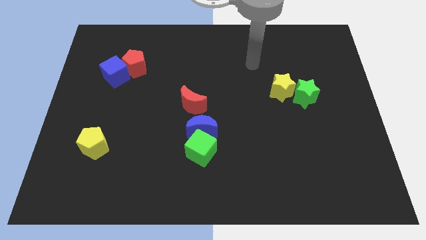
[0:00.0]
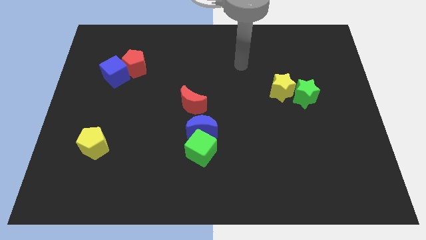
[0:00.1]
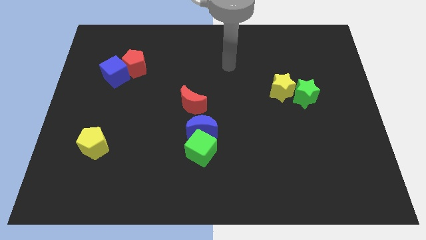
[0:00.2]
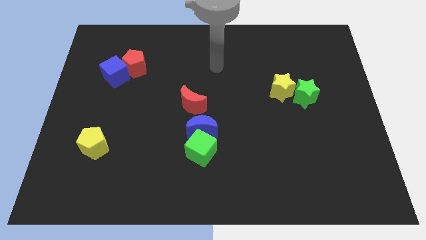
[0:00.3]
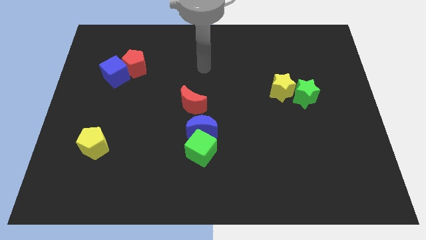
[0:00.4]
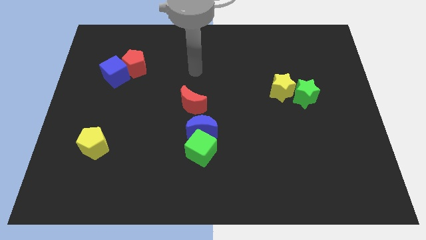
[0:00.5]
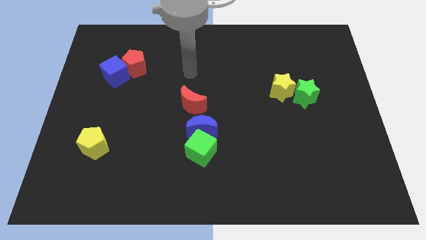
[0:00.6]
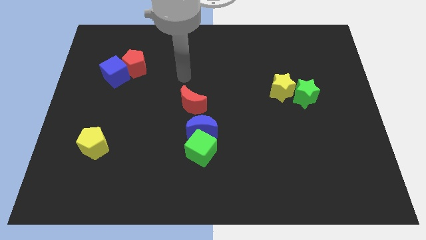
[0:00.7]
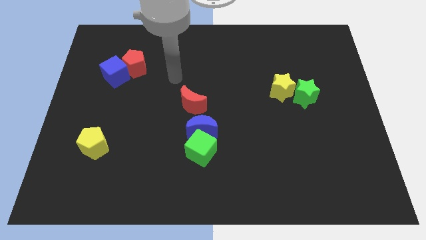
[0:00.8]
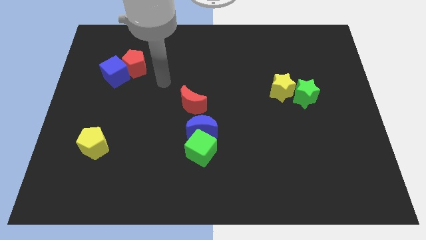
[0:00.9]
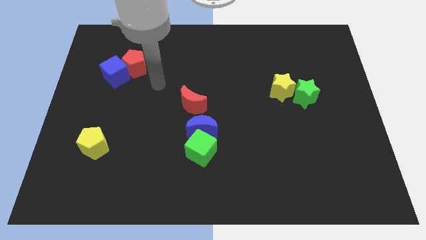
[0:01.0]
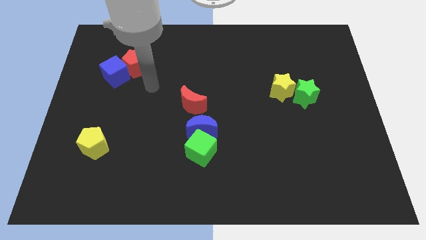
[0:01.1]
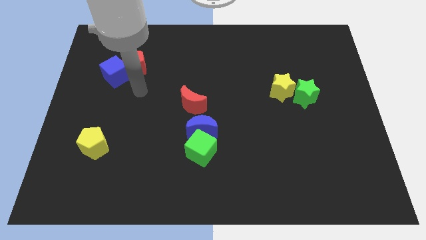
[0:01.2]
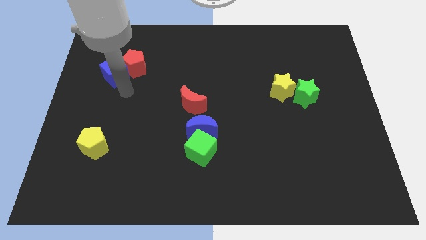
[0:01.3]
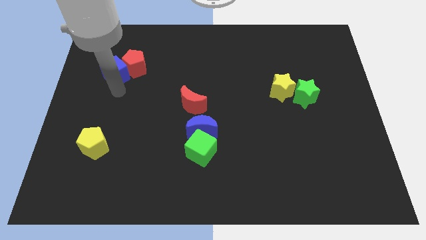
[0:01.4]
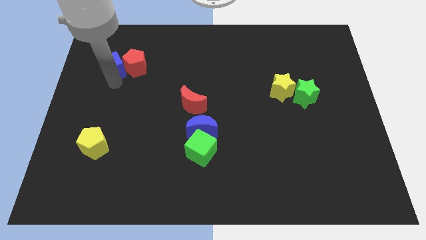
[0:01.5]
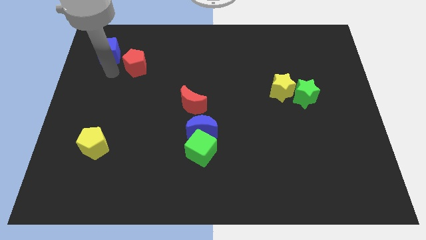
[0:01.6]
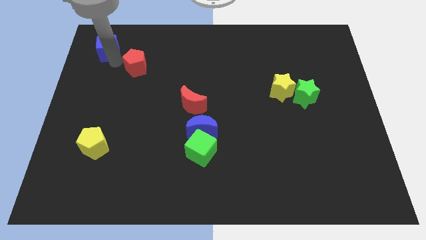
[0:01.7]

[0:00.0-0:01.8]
pull the red pentagon apart from the blue cube

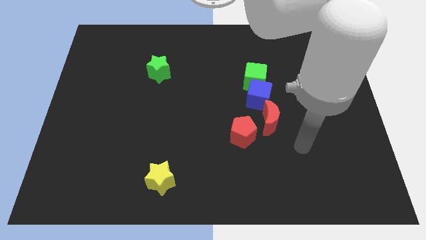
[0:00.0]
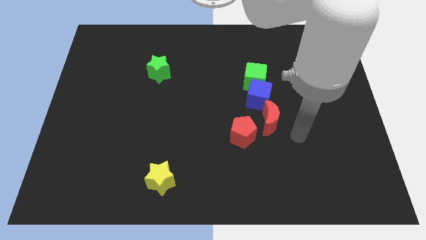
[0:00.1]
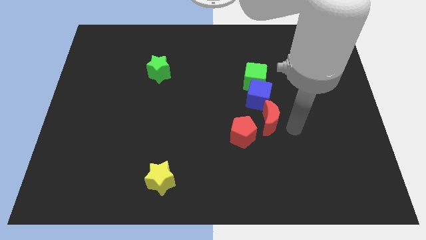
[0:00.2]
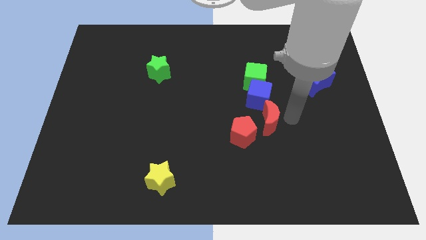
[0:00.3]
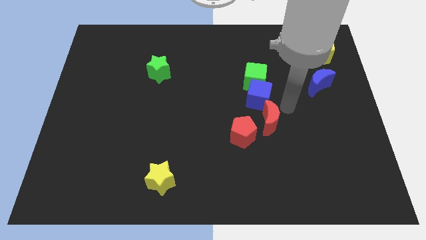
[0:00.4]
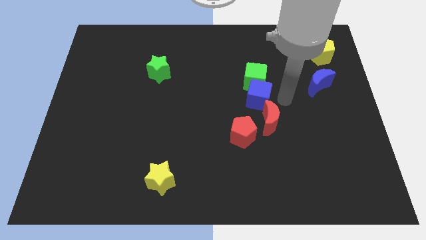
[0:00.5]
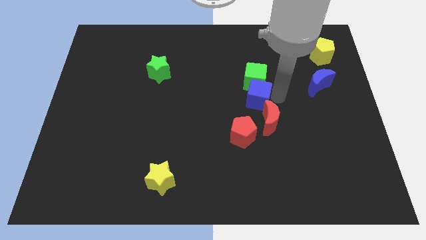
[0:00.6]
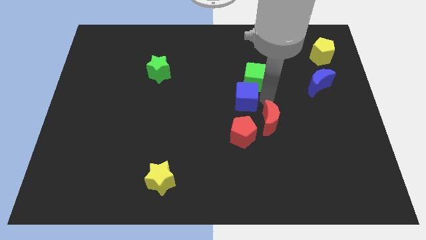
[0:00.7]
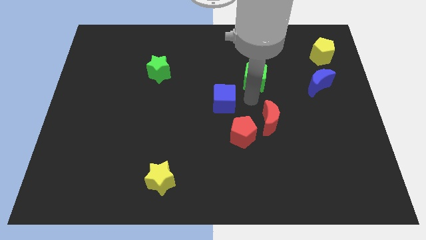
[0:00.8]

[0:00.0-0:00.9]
separate the green cube from the blue cube

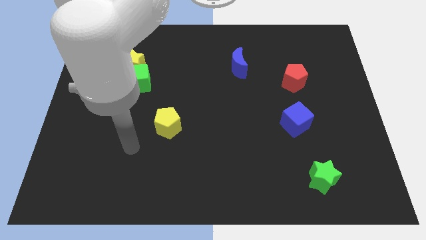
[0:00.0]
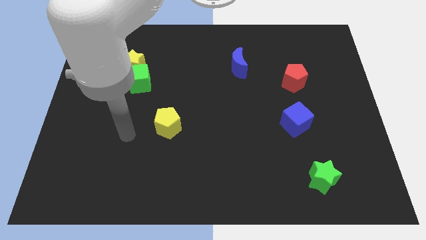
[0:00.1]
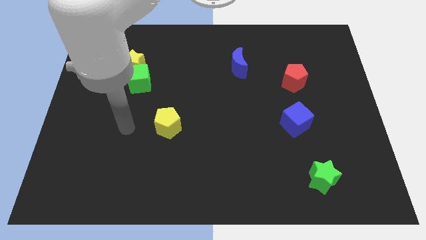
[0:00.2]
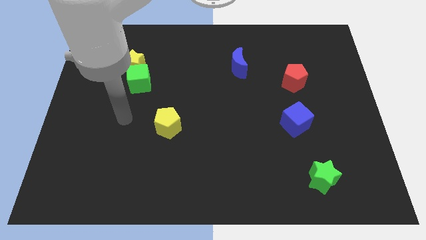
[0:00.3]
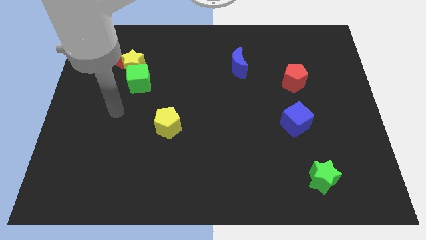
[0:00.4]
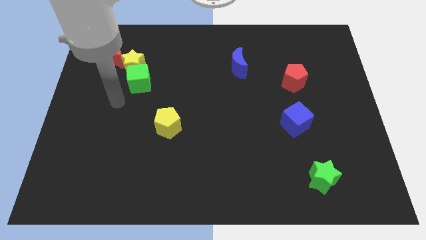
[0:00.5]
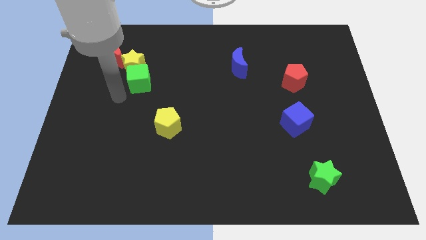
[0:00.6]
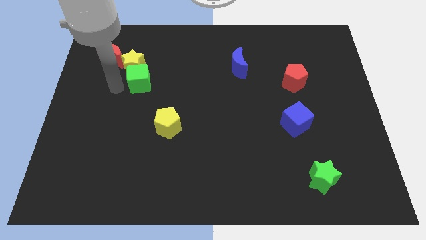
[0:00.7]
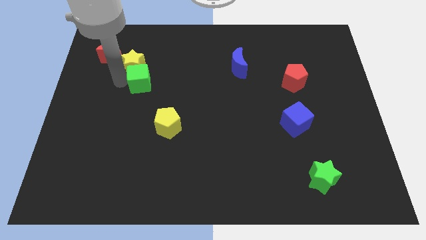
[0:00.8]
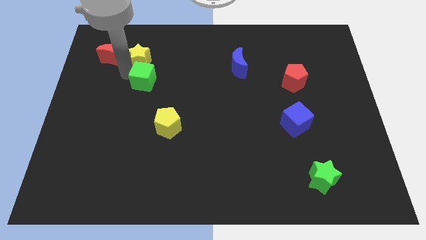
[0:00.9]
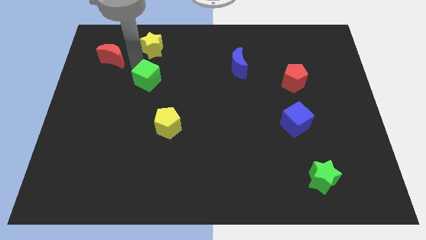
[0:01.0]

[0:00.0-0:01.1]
separate the green cube from the yellow star

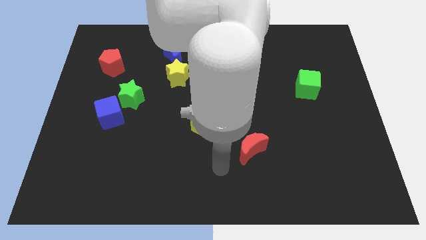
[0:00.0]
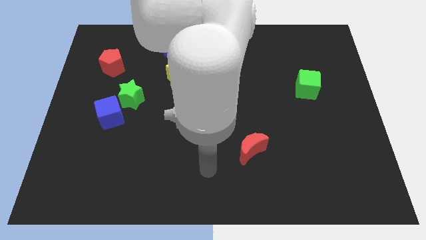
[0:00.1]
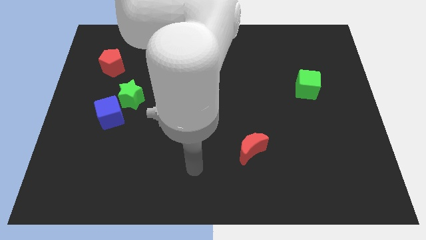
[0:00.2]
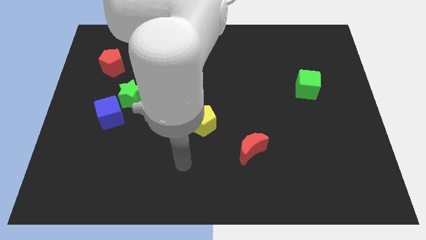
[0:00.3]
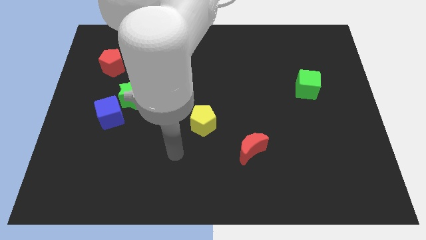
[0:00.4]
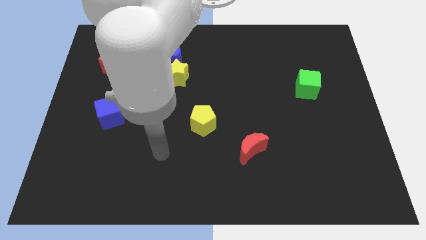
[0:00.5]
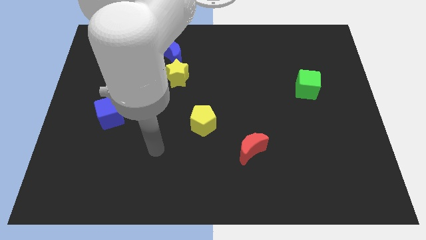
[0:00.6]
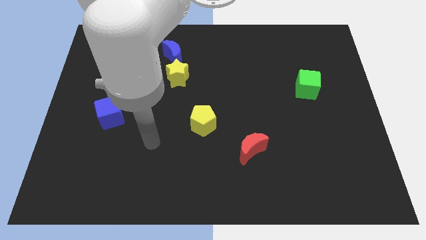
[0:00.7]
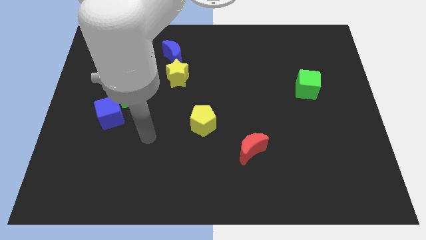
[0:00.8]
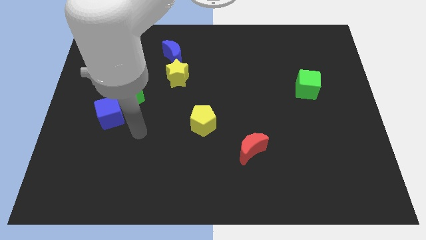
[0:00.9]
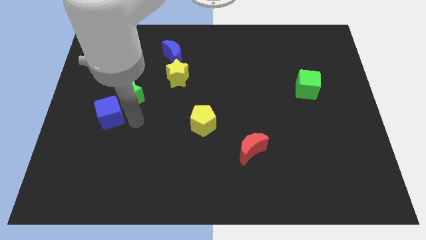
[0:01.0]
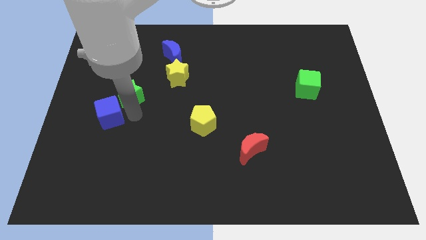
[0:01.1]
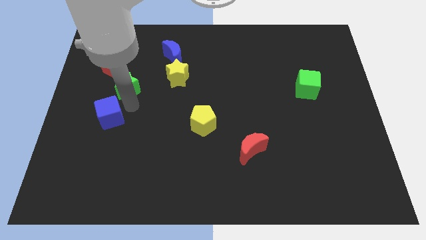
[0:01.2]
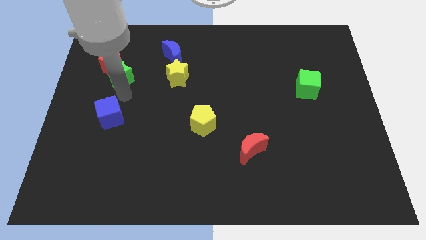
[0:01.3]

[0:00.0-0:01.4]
move the blue cube away from the green star

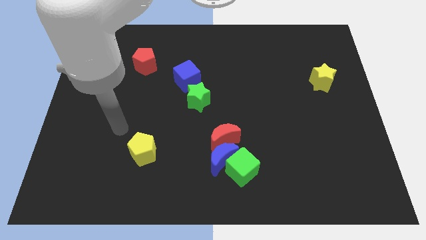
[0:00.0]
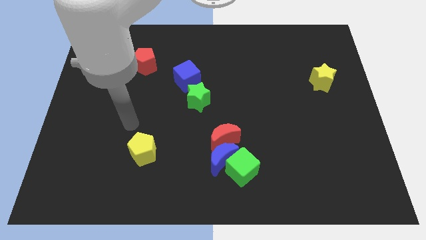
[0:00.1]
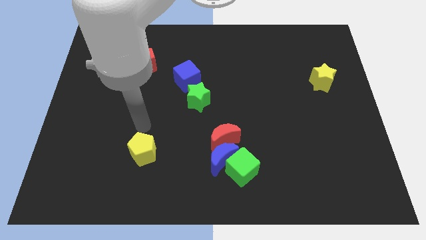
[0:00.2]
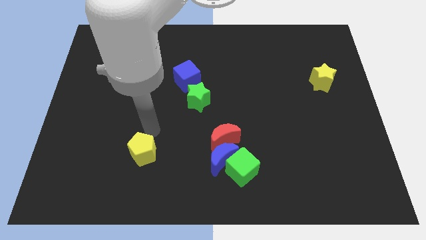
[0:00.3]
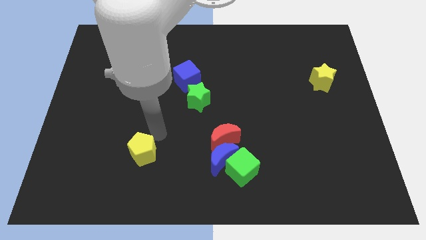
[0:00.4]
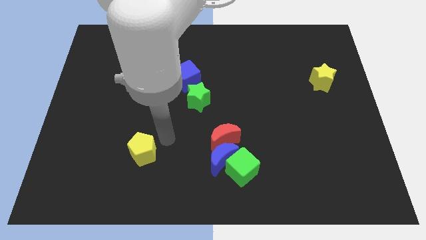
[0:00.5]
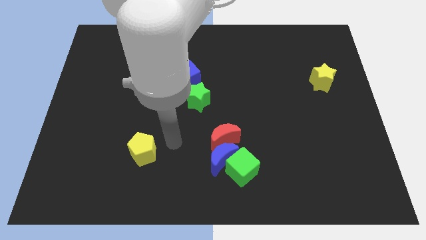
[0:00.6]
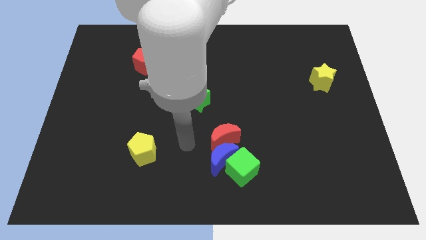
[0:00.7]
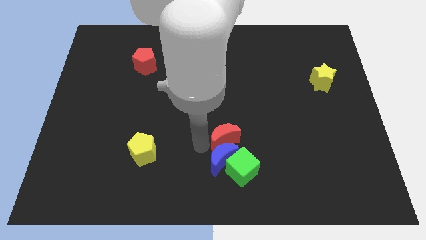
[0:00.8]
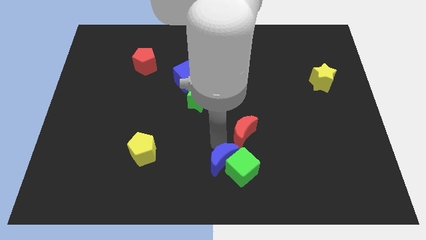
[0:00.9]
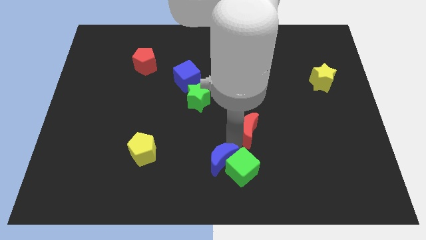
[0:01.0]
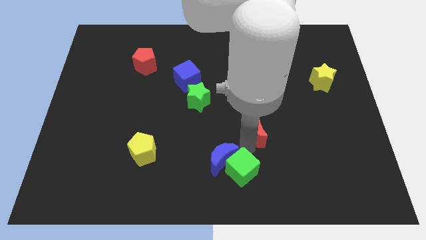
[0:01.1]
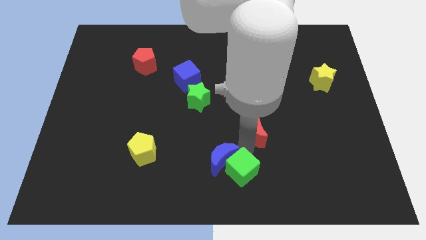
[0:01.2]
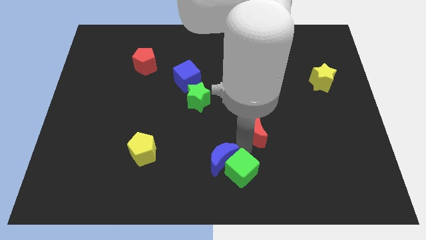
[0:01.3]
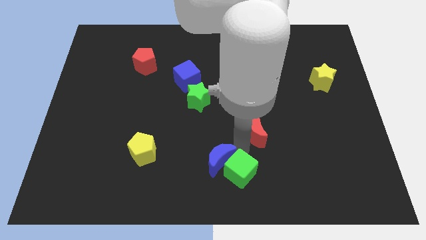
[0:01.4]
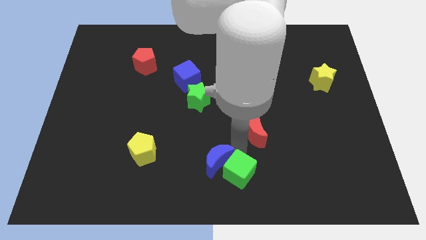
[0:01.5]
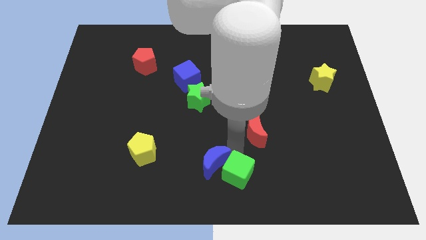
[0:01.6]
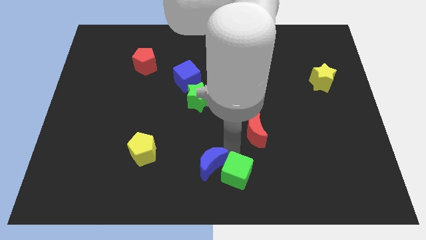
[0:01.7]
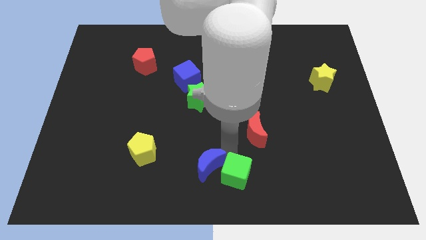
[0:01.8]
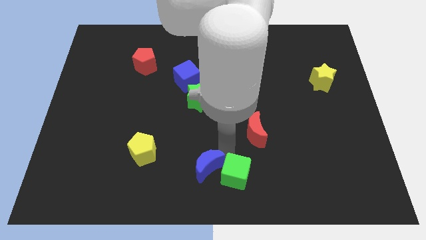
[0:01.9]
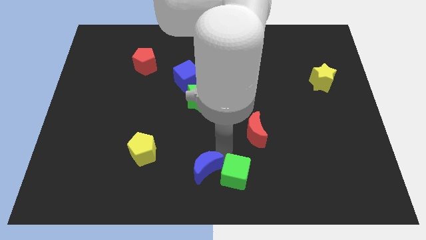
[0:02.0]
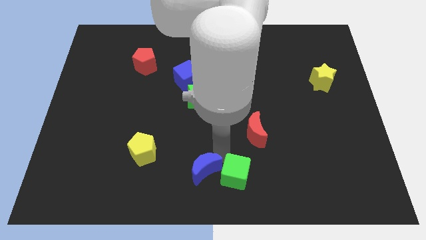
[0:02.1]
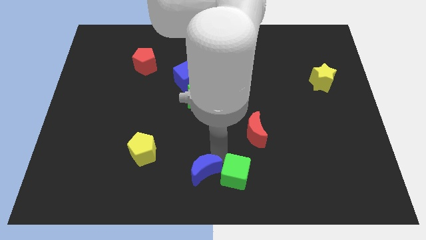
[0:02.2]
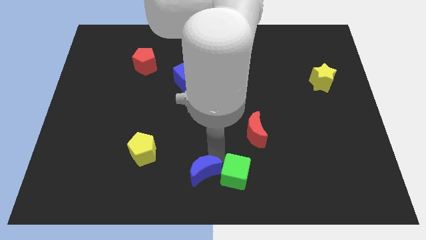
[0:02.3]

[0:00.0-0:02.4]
separate the blue moon from the green cube and red moon

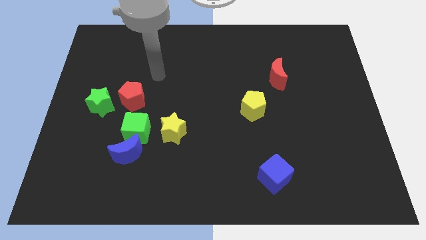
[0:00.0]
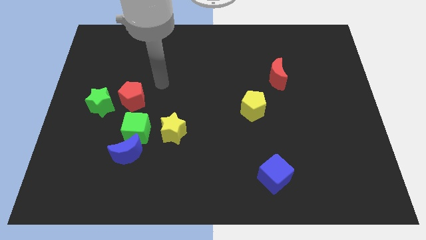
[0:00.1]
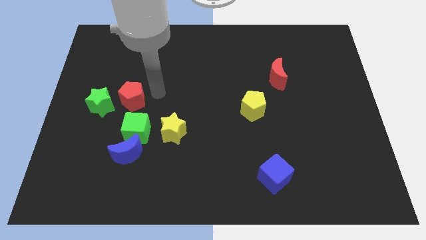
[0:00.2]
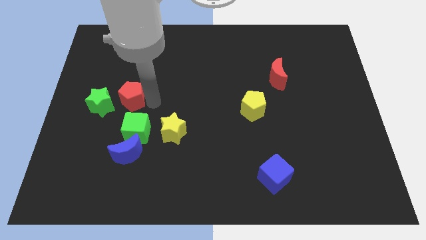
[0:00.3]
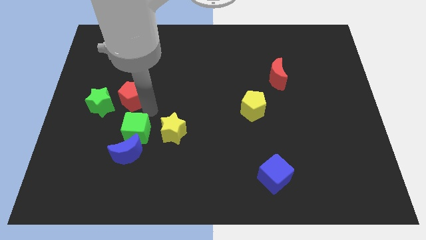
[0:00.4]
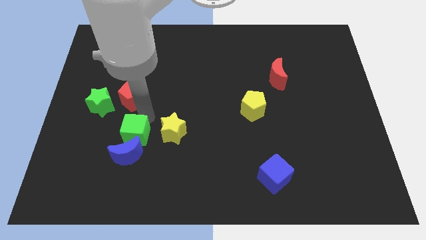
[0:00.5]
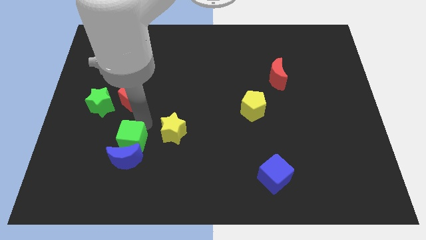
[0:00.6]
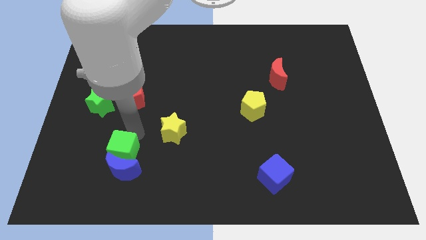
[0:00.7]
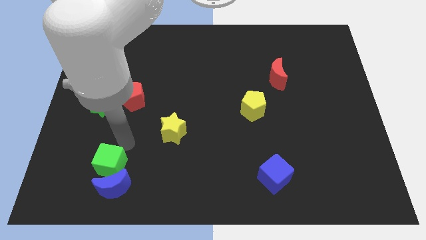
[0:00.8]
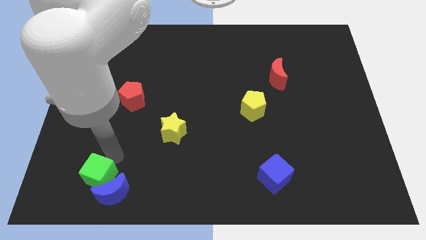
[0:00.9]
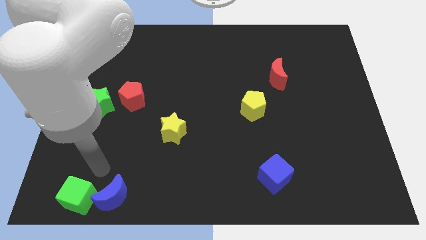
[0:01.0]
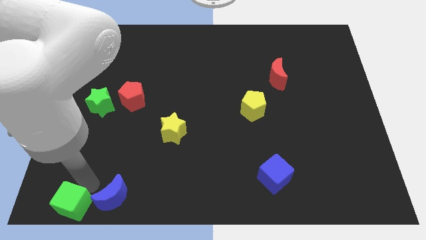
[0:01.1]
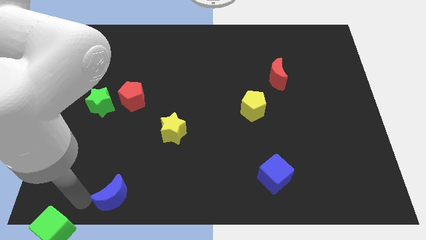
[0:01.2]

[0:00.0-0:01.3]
move the blue moon away from the green cube

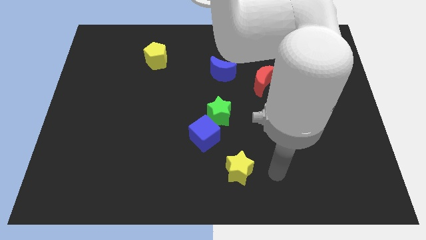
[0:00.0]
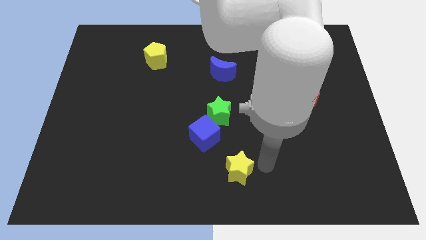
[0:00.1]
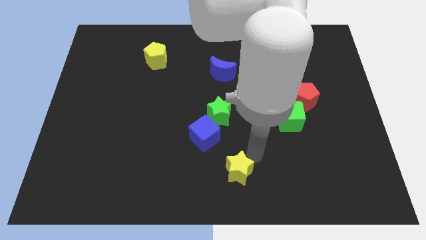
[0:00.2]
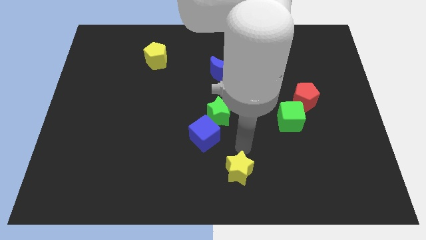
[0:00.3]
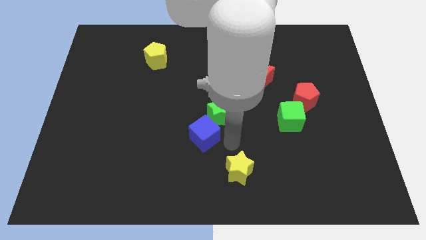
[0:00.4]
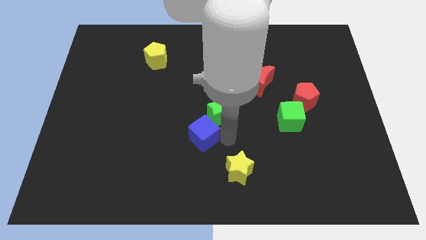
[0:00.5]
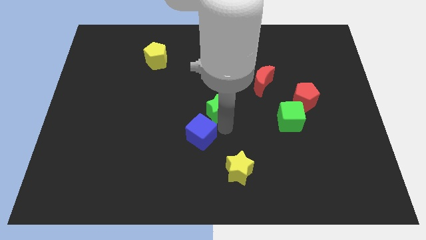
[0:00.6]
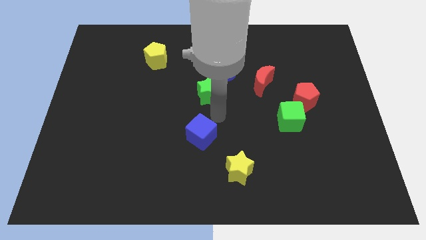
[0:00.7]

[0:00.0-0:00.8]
separate the blue cube from the green star
